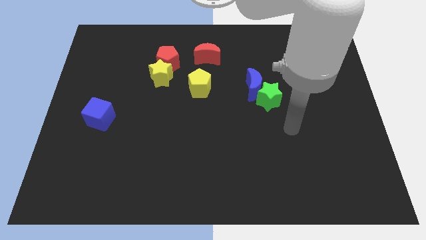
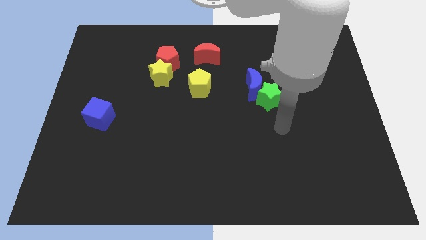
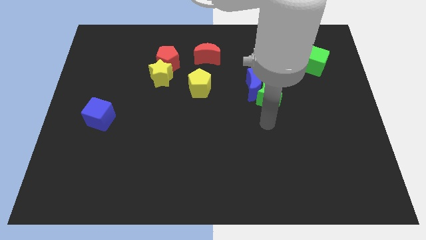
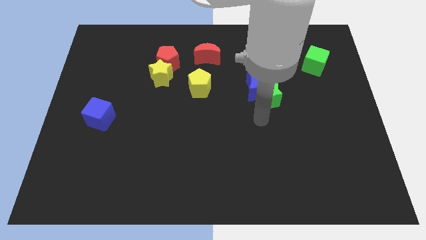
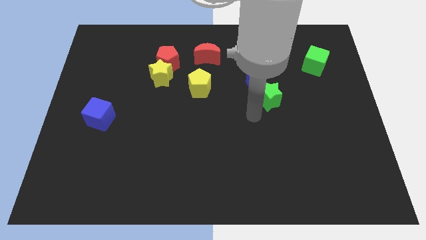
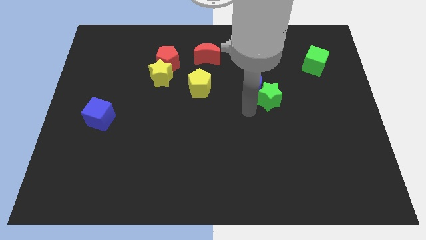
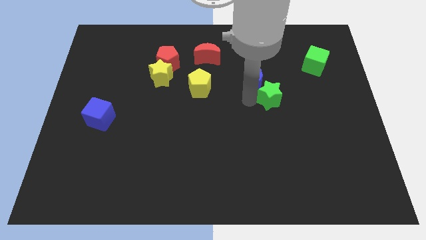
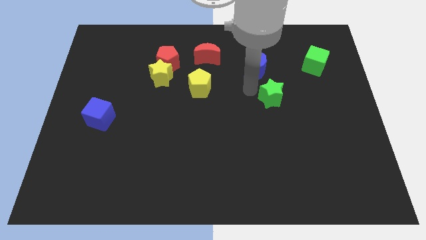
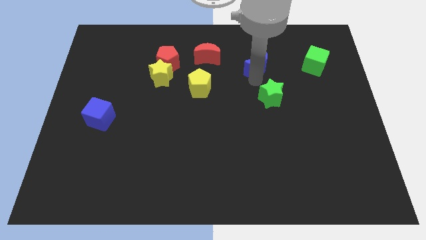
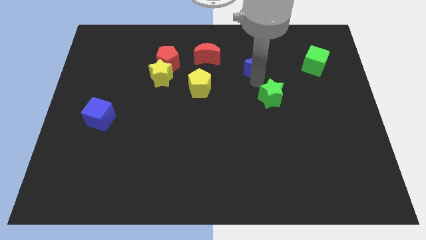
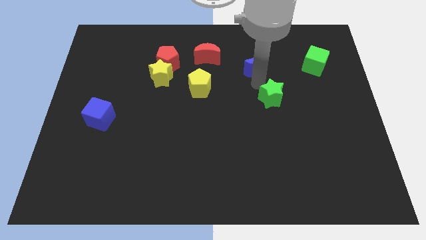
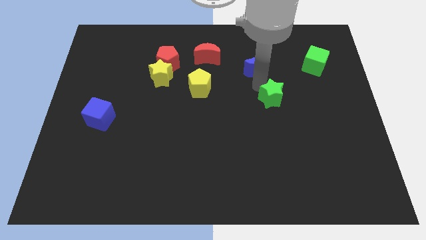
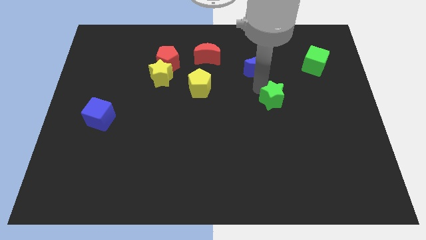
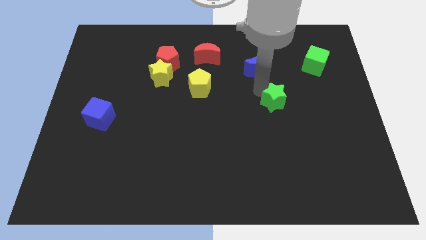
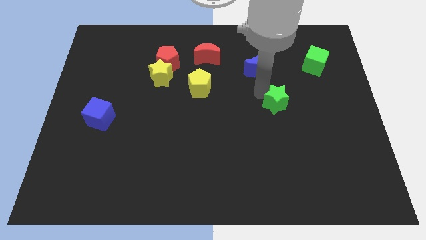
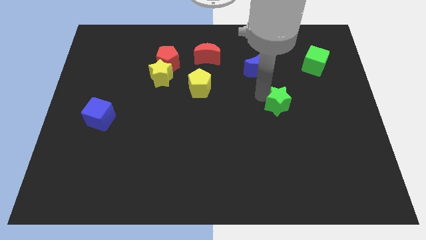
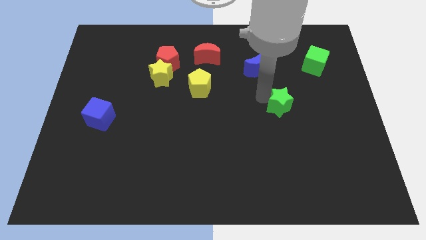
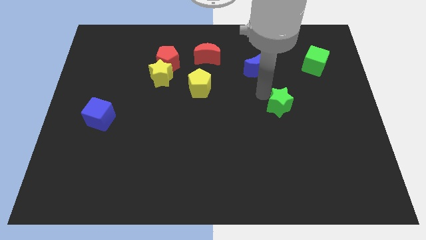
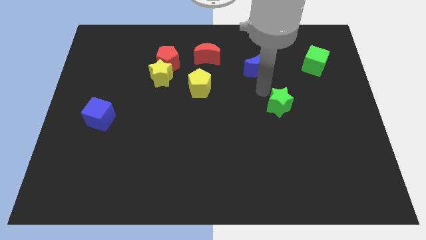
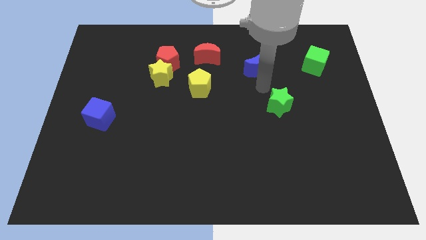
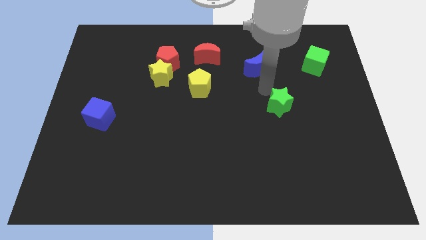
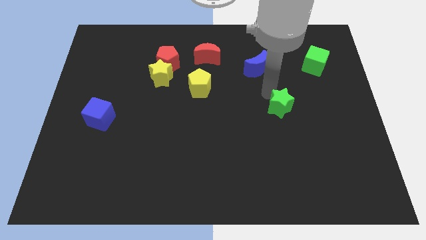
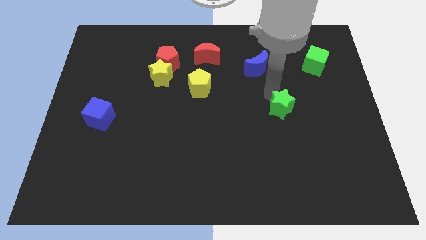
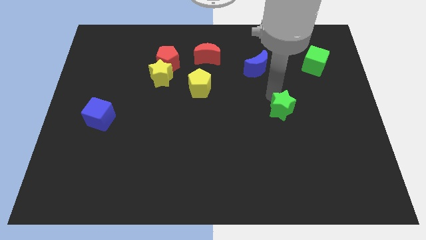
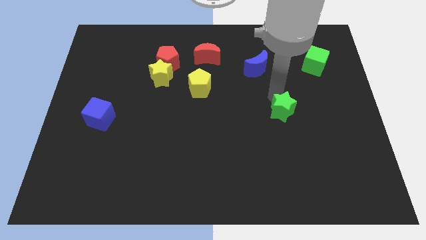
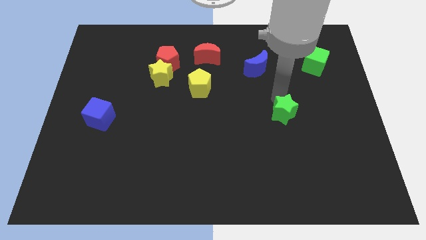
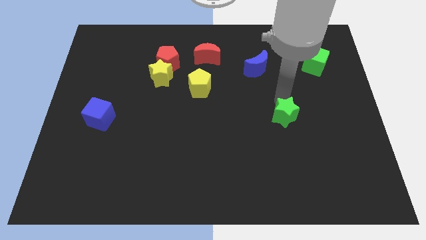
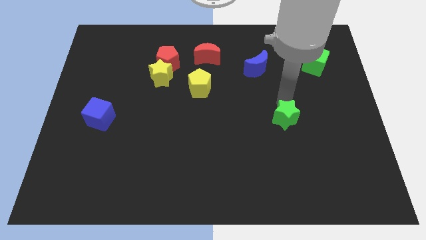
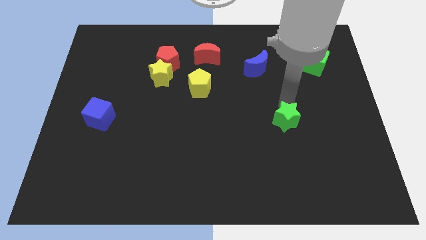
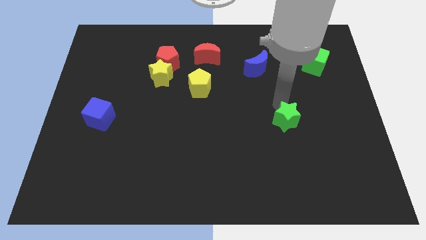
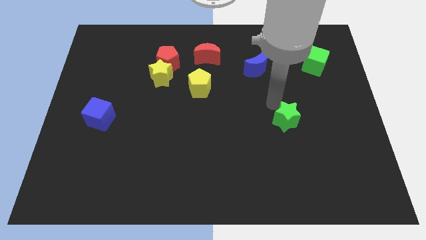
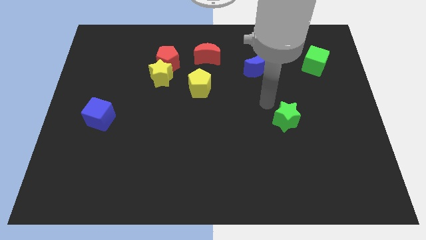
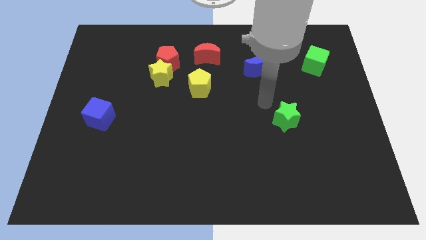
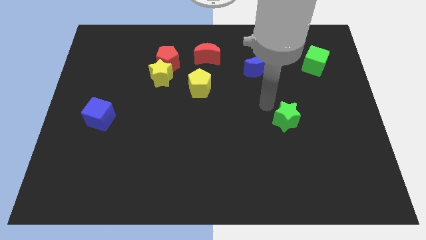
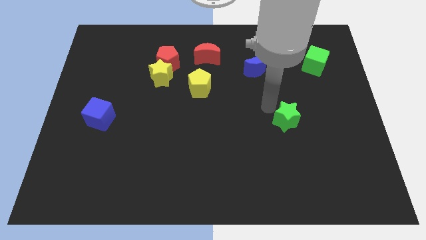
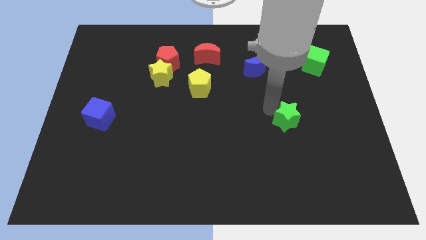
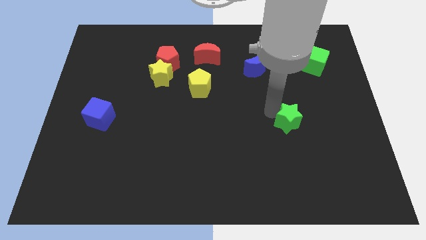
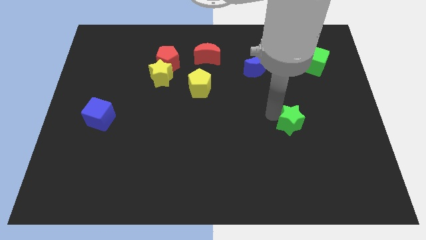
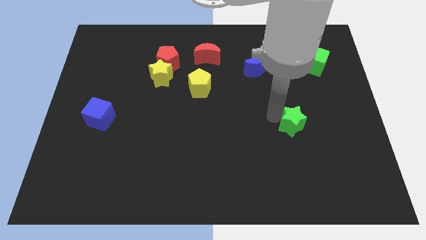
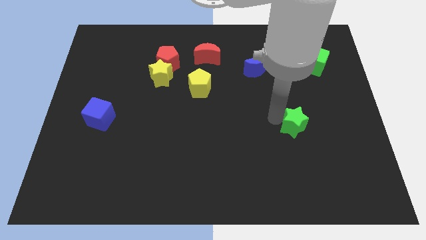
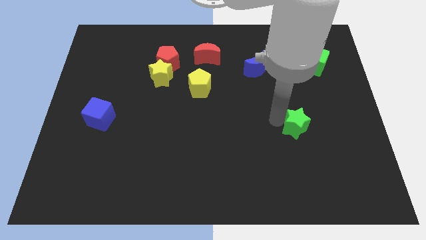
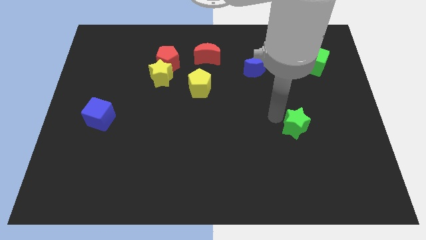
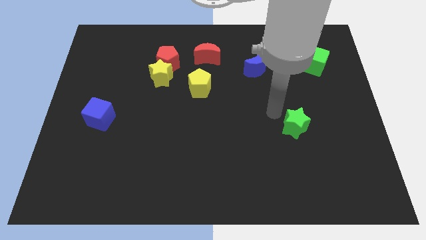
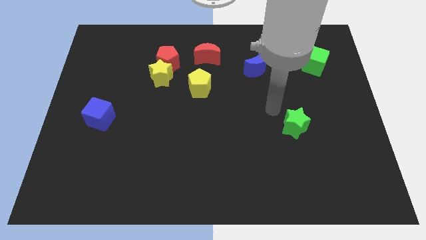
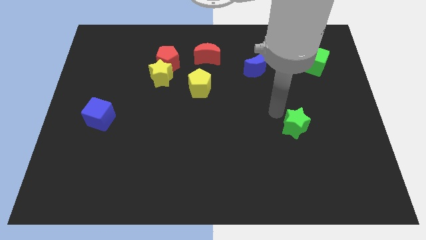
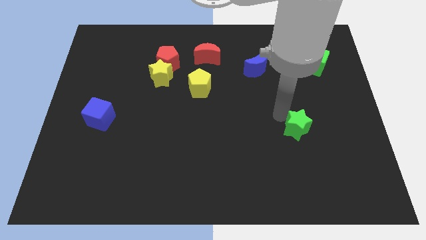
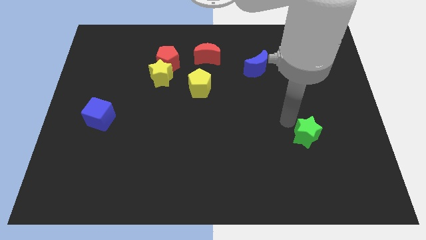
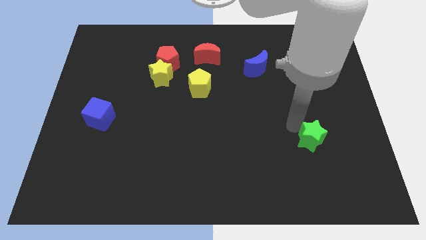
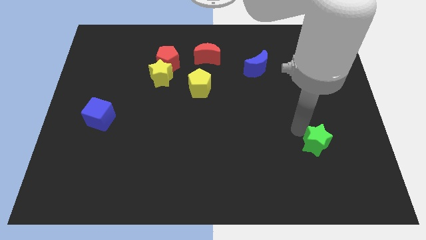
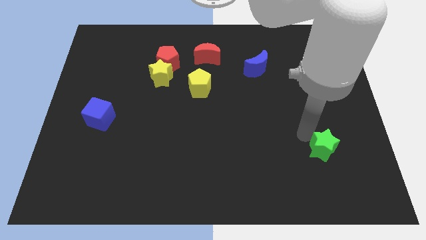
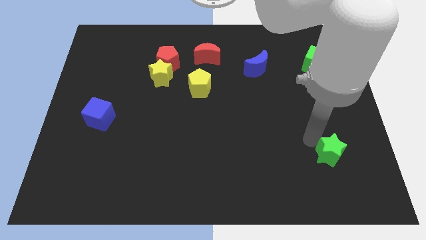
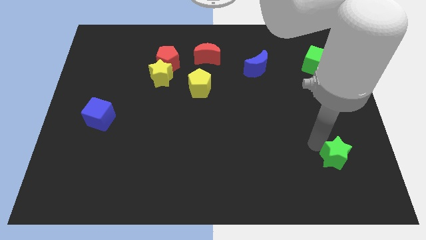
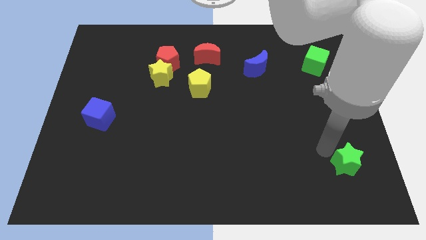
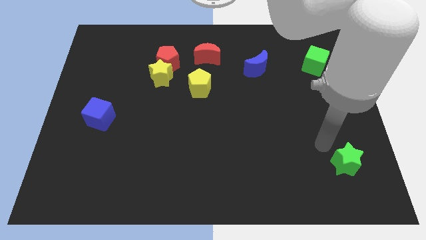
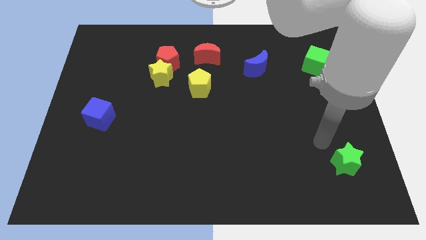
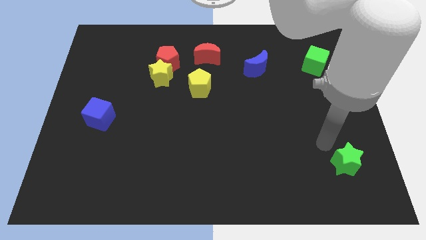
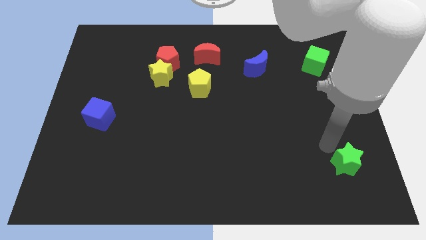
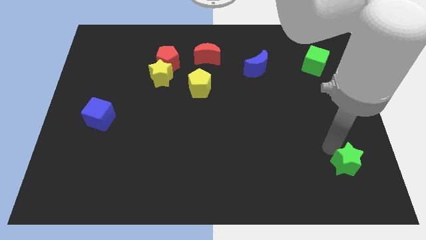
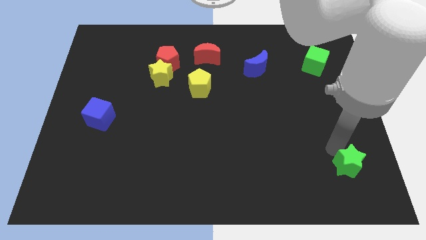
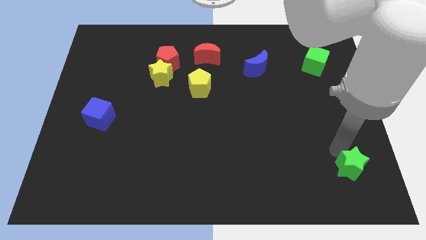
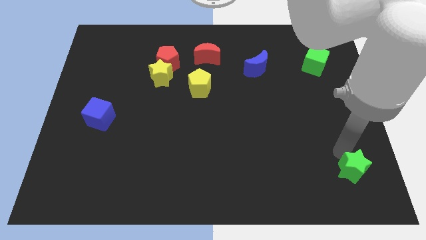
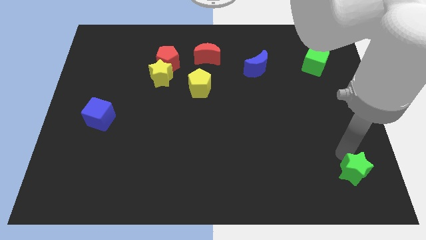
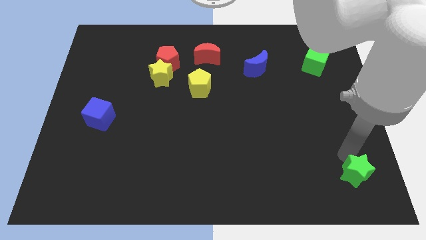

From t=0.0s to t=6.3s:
move the green star to the bottom right
